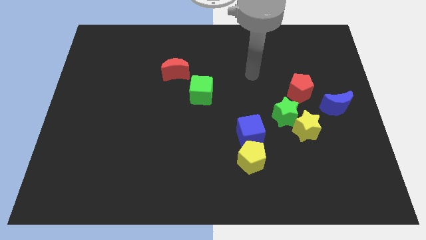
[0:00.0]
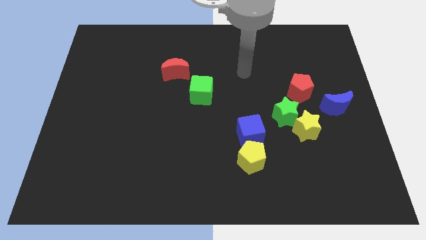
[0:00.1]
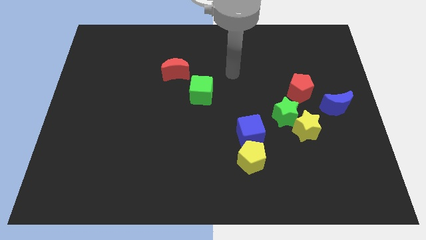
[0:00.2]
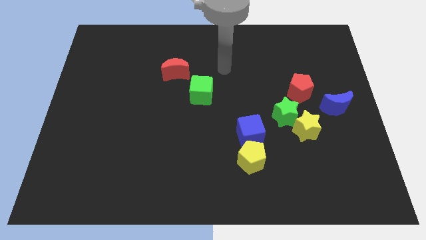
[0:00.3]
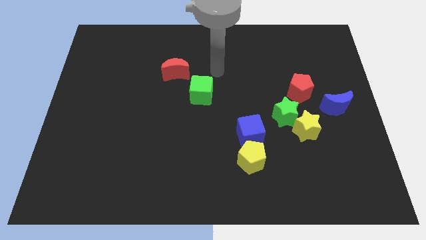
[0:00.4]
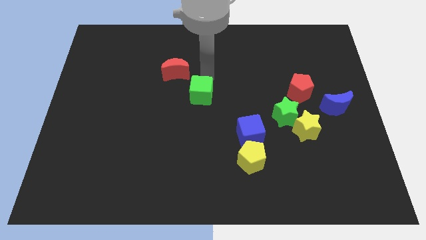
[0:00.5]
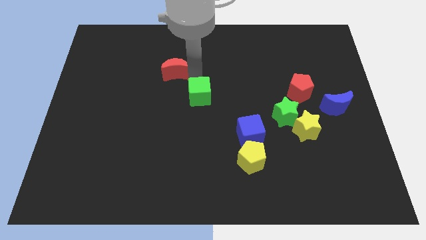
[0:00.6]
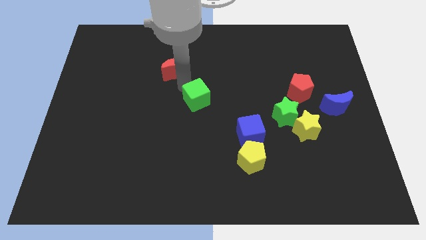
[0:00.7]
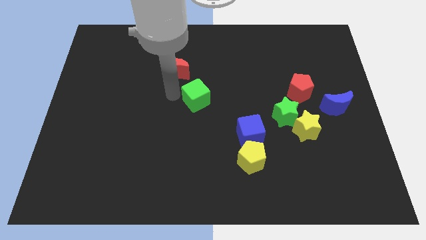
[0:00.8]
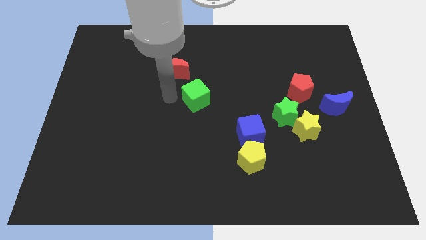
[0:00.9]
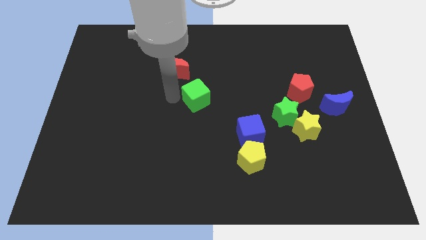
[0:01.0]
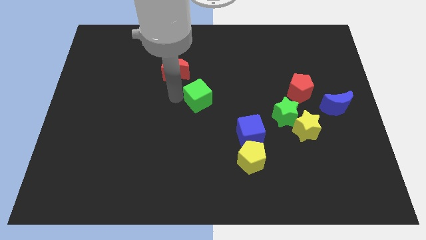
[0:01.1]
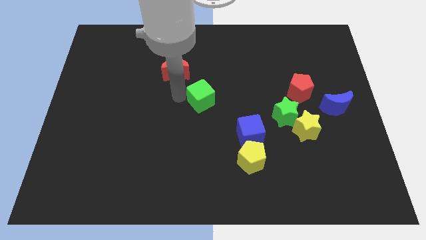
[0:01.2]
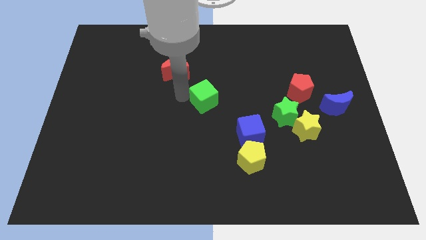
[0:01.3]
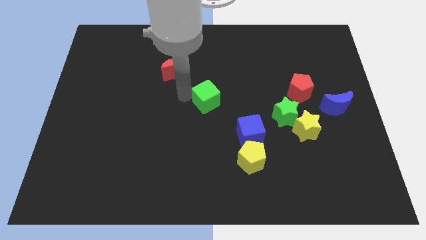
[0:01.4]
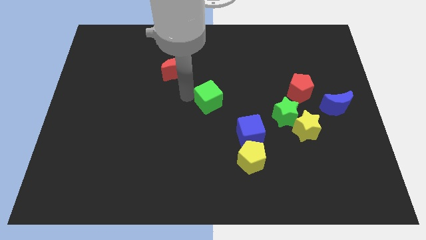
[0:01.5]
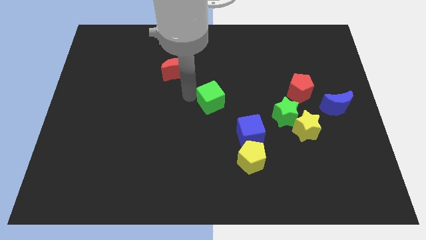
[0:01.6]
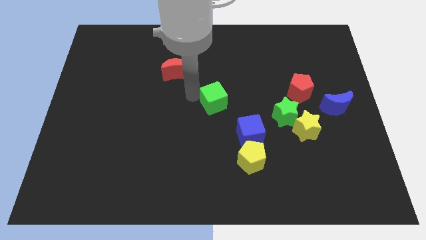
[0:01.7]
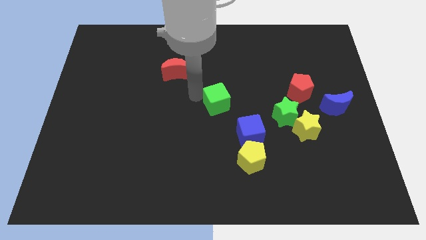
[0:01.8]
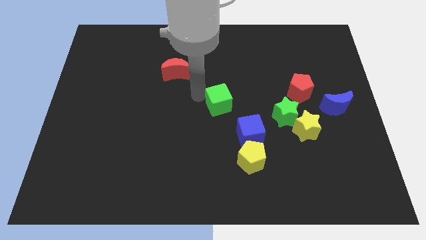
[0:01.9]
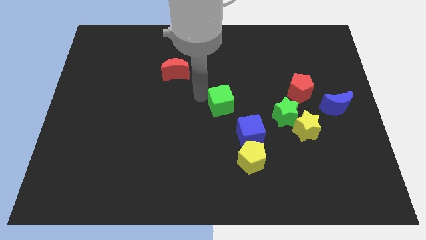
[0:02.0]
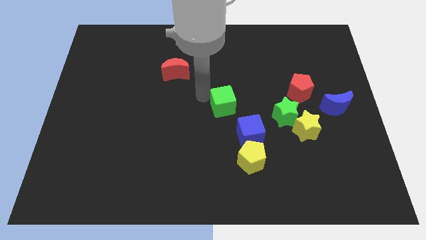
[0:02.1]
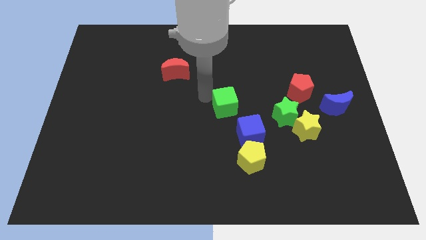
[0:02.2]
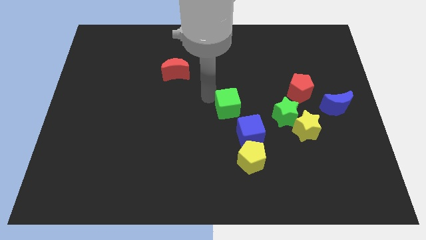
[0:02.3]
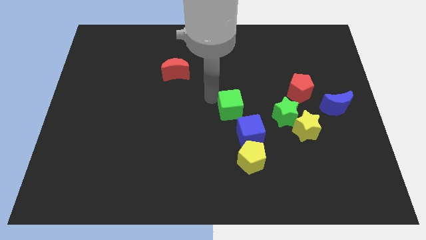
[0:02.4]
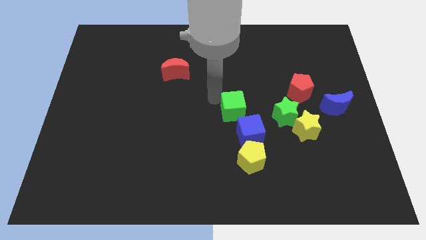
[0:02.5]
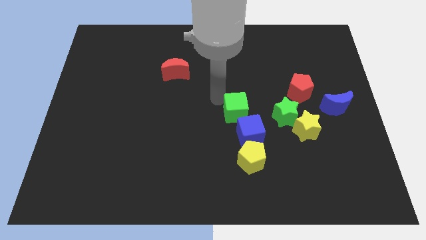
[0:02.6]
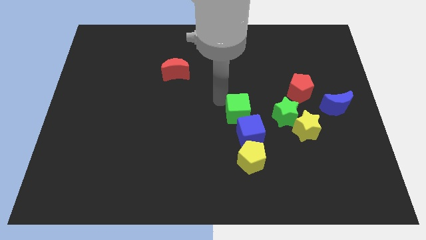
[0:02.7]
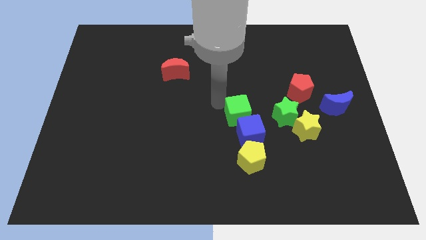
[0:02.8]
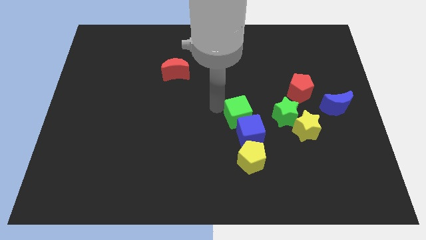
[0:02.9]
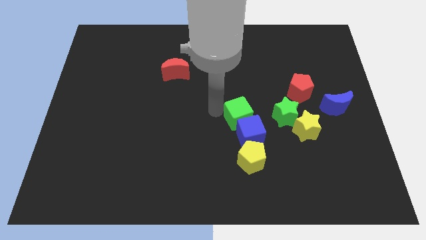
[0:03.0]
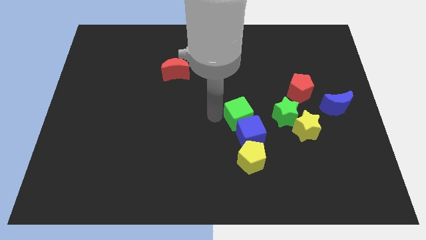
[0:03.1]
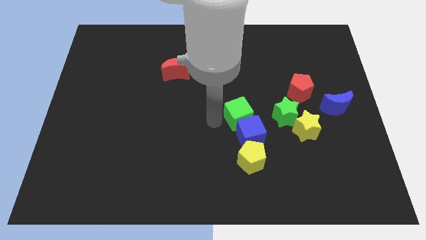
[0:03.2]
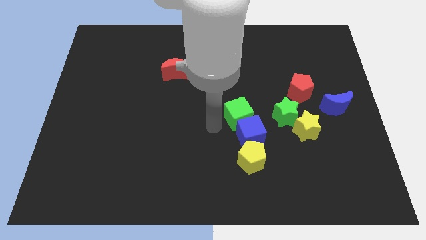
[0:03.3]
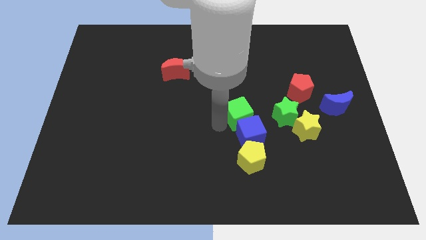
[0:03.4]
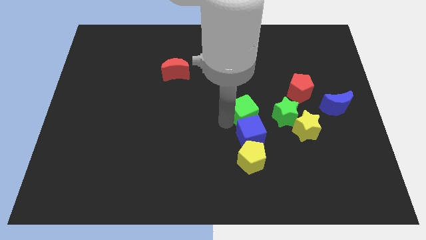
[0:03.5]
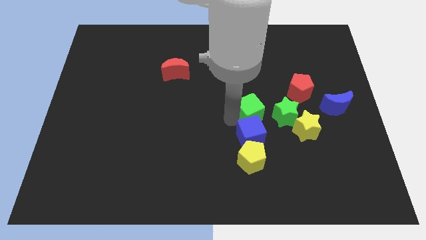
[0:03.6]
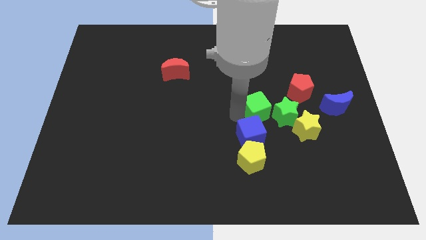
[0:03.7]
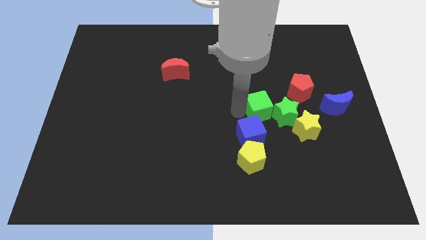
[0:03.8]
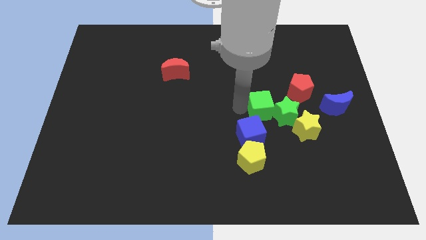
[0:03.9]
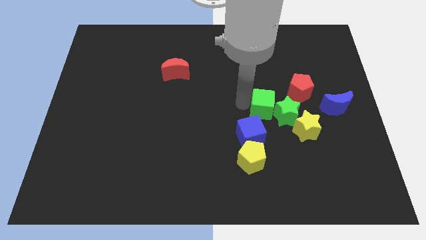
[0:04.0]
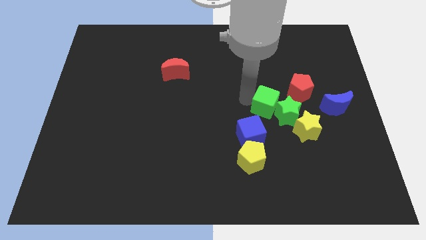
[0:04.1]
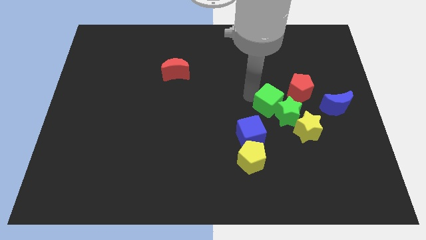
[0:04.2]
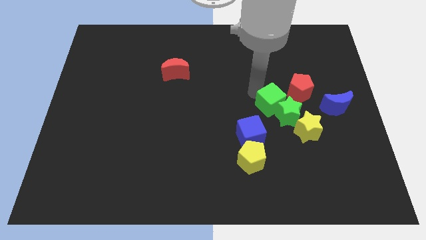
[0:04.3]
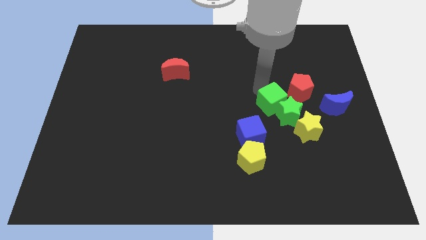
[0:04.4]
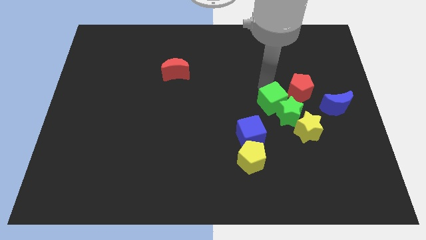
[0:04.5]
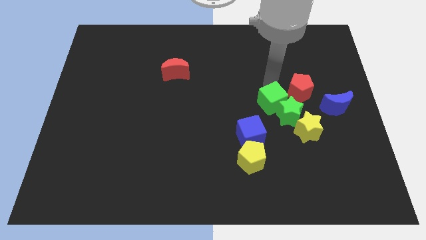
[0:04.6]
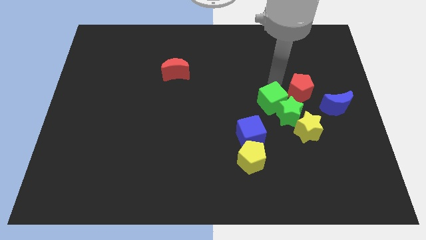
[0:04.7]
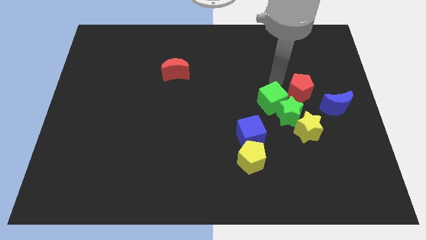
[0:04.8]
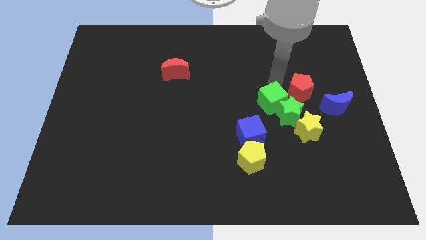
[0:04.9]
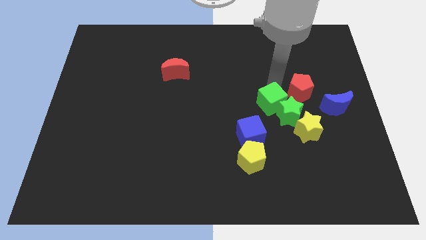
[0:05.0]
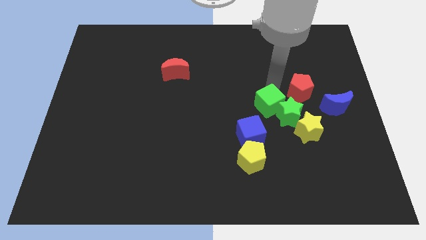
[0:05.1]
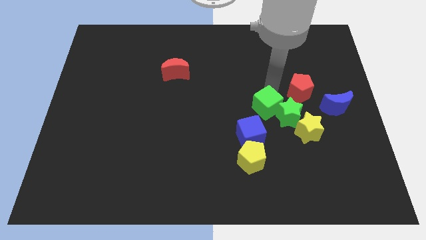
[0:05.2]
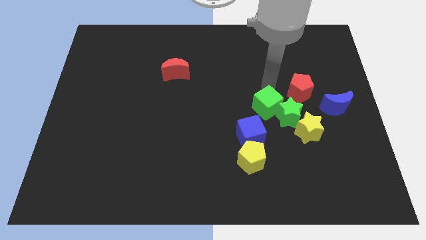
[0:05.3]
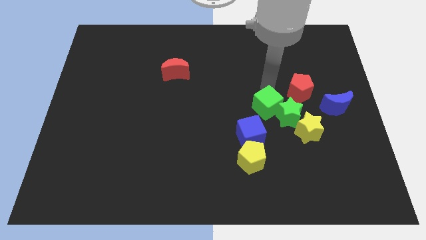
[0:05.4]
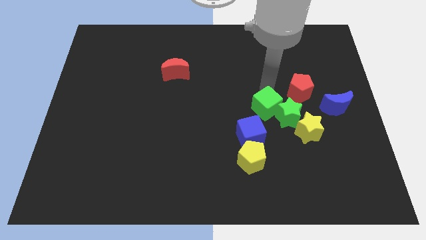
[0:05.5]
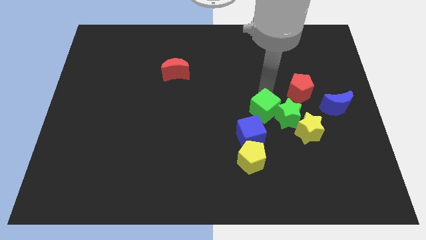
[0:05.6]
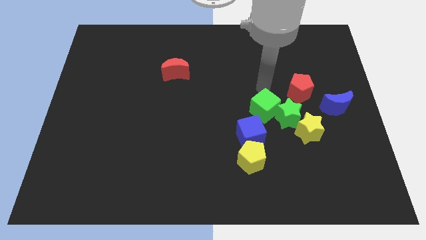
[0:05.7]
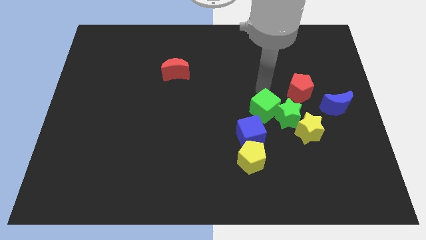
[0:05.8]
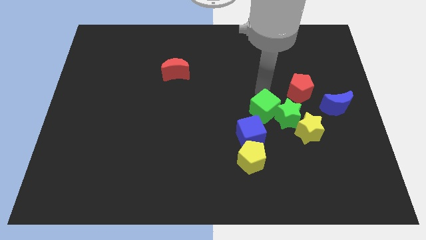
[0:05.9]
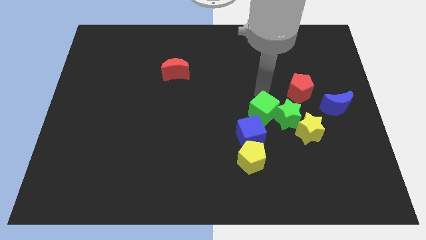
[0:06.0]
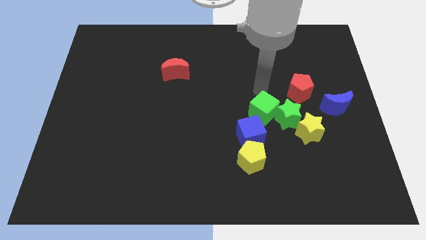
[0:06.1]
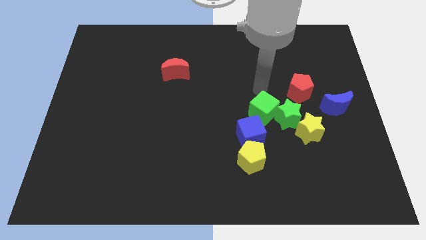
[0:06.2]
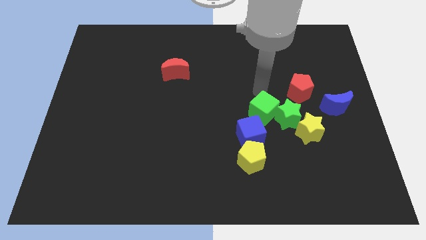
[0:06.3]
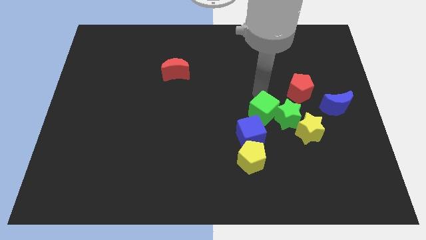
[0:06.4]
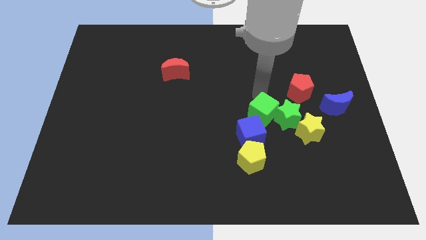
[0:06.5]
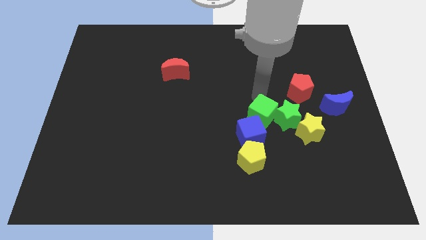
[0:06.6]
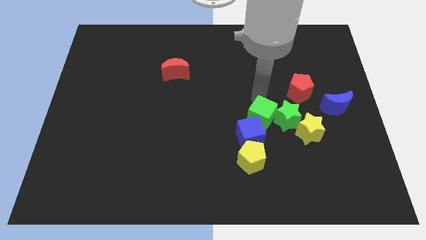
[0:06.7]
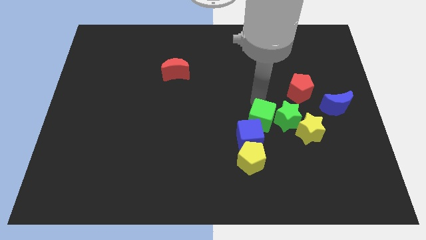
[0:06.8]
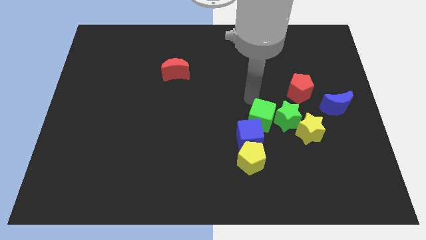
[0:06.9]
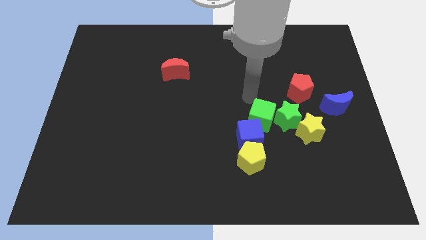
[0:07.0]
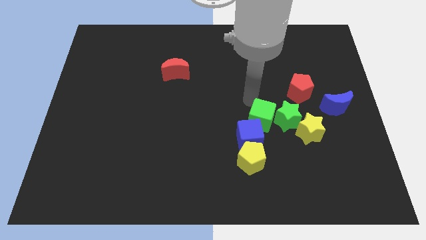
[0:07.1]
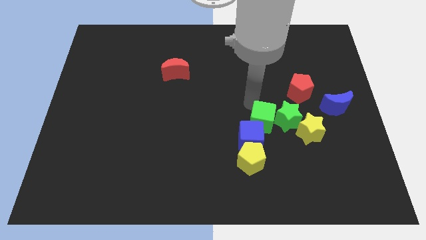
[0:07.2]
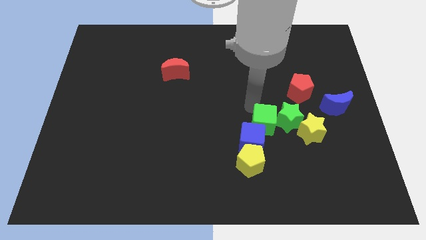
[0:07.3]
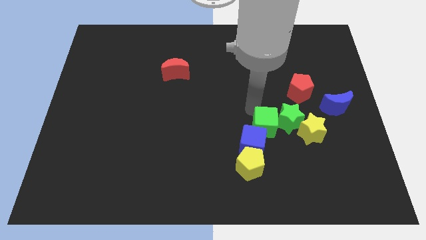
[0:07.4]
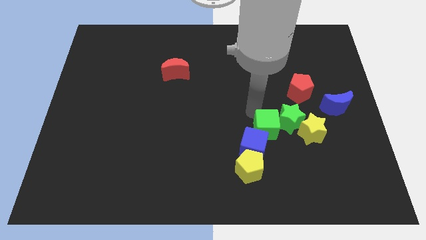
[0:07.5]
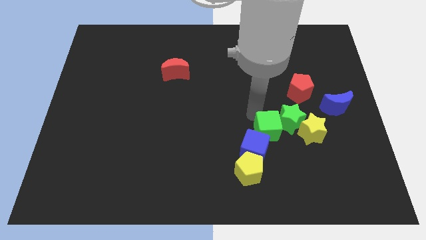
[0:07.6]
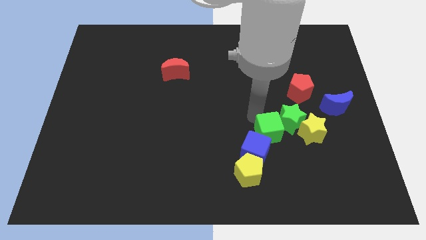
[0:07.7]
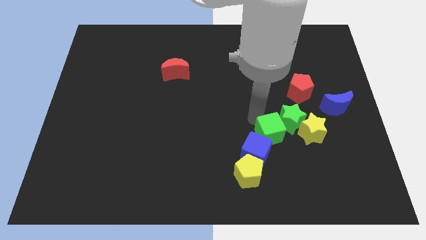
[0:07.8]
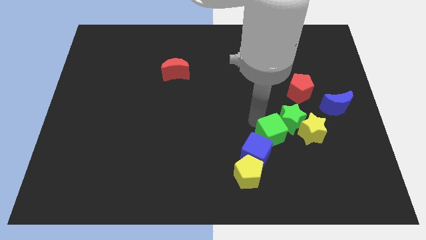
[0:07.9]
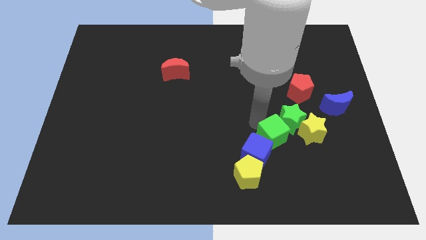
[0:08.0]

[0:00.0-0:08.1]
slide the green cube diagonally downwards and to the right
